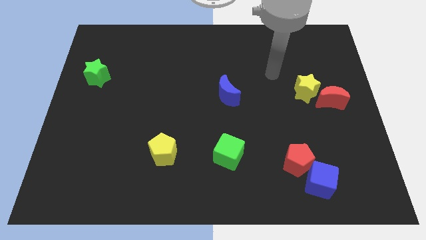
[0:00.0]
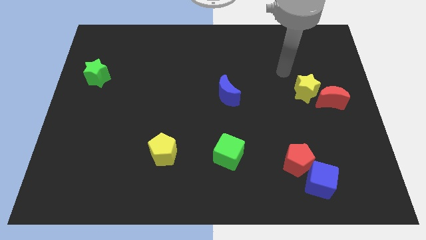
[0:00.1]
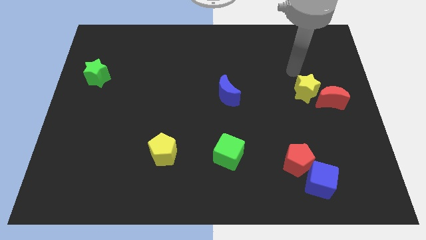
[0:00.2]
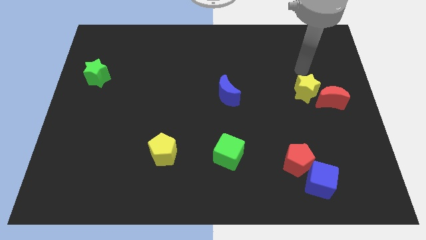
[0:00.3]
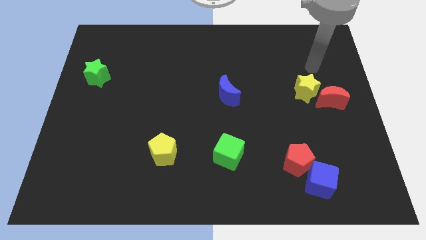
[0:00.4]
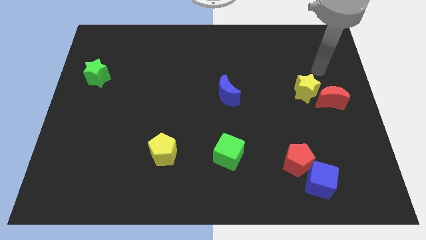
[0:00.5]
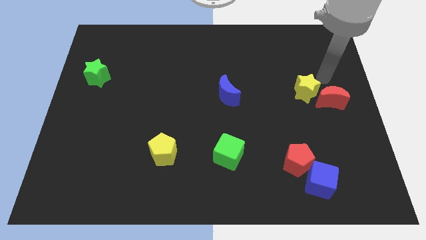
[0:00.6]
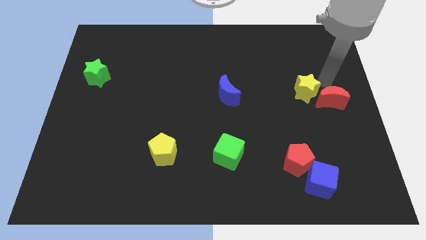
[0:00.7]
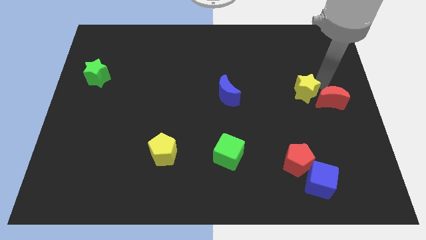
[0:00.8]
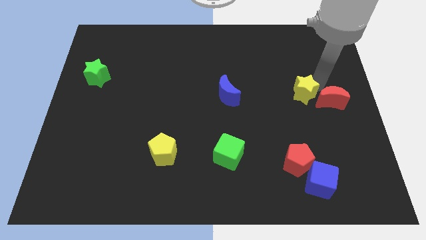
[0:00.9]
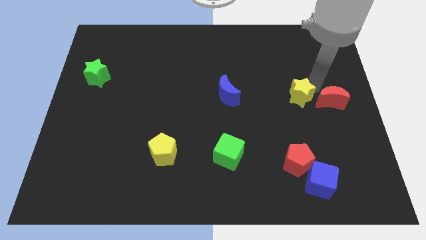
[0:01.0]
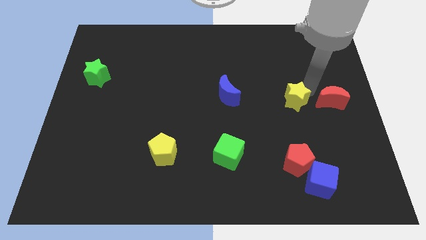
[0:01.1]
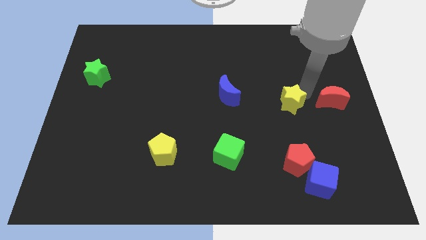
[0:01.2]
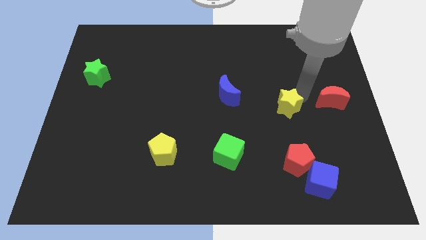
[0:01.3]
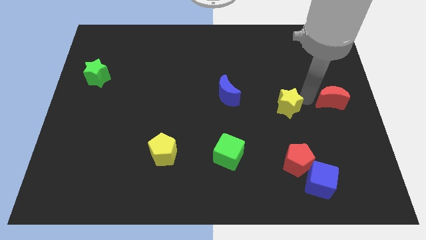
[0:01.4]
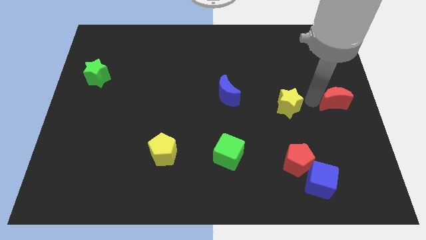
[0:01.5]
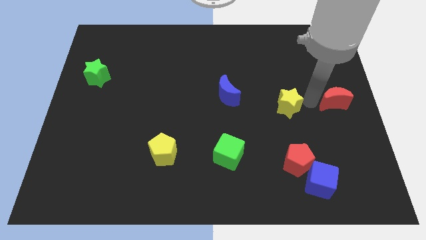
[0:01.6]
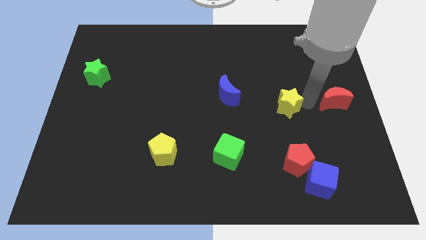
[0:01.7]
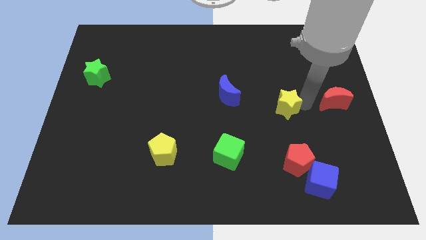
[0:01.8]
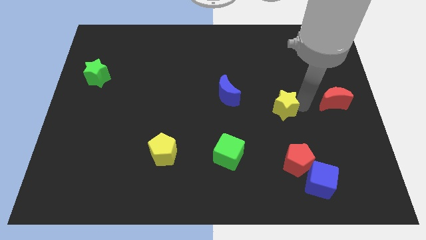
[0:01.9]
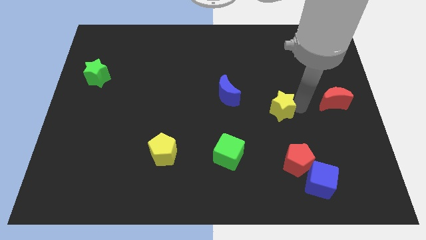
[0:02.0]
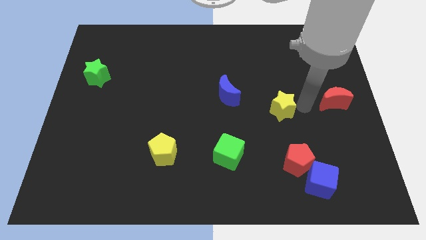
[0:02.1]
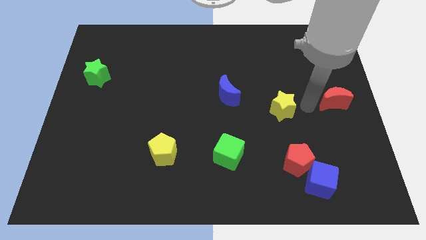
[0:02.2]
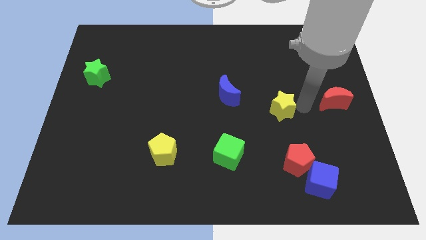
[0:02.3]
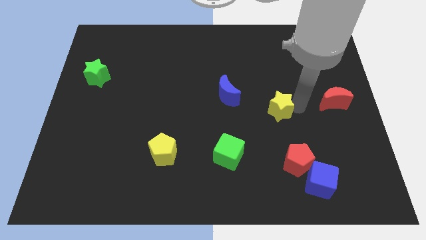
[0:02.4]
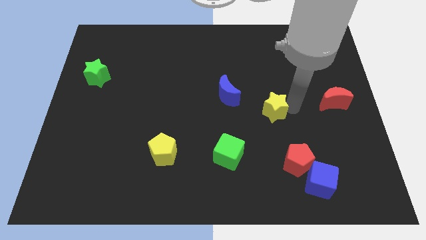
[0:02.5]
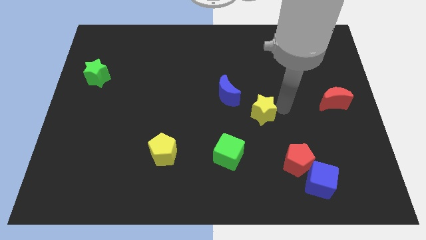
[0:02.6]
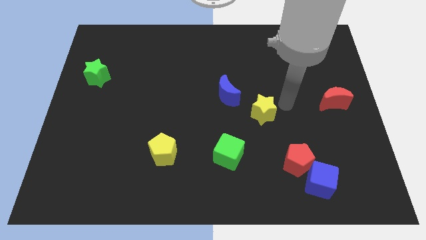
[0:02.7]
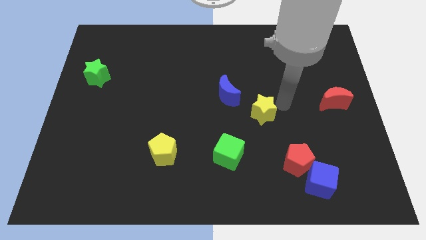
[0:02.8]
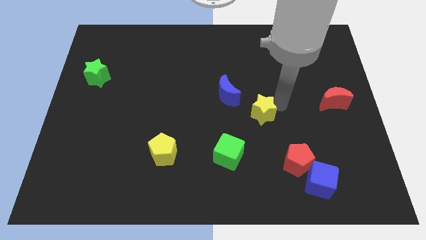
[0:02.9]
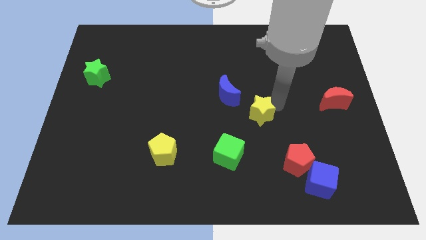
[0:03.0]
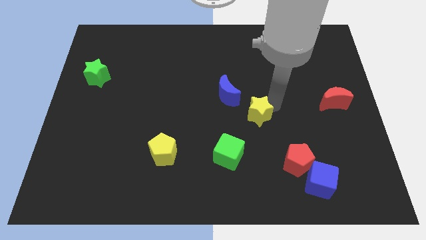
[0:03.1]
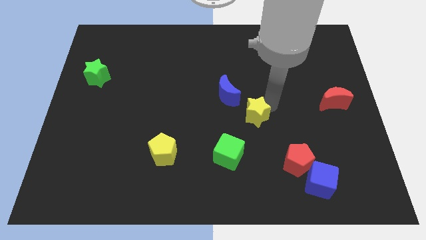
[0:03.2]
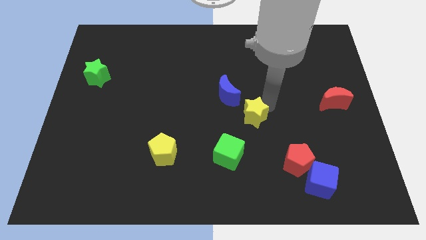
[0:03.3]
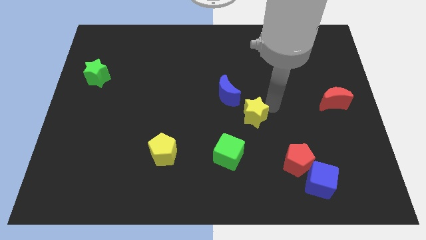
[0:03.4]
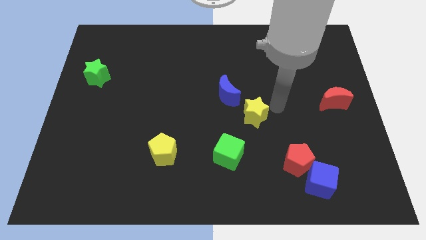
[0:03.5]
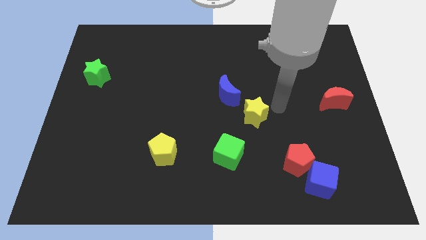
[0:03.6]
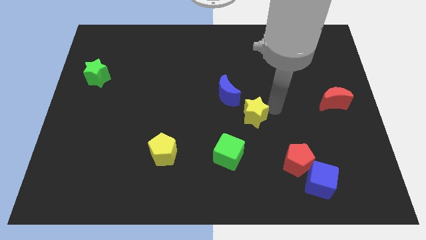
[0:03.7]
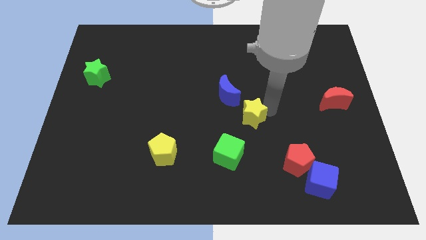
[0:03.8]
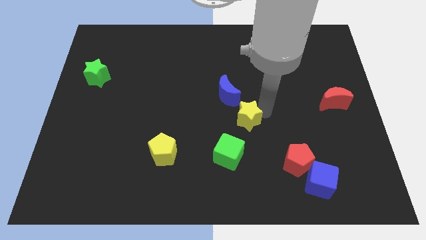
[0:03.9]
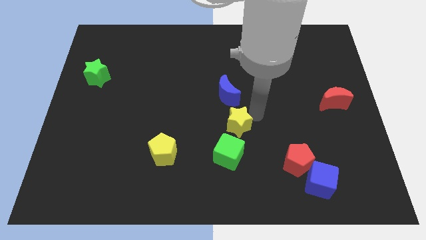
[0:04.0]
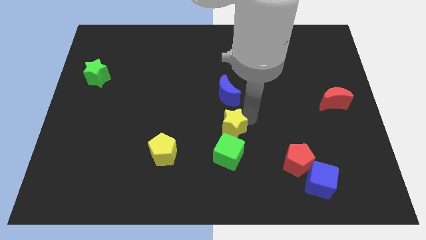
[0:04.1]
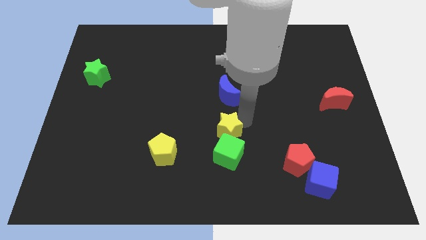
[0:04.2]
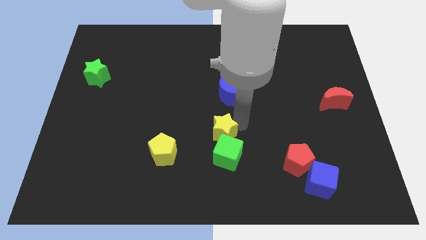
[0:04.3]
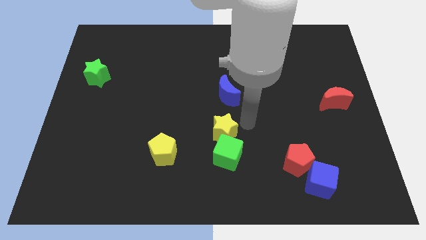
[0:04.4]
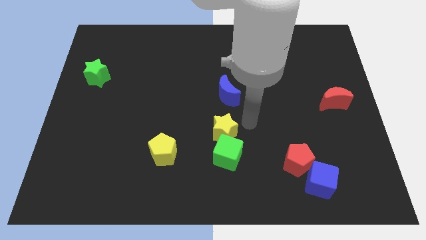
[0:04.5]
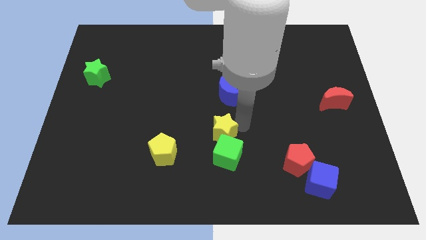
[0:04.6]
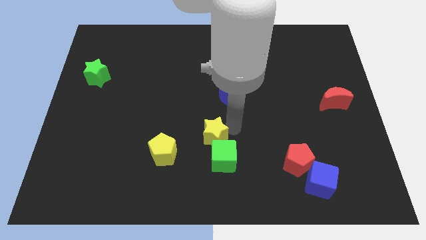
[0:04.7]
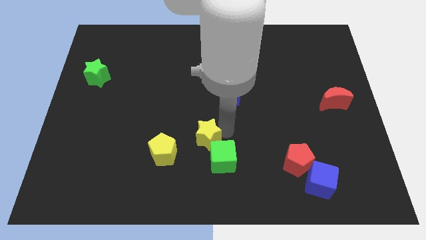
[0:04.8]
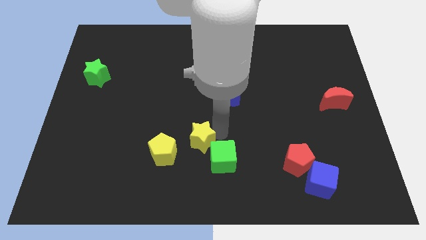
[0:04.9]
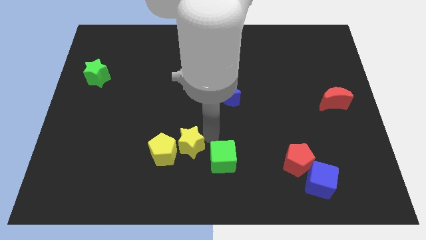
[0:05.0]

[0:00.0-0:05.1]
put the yellow star next to the yellow pentagon

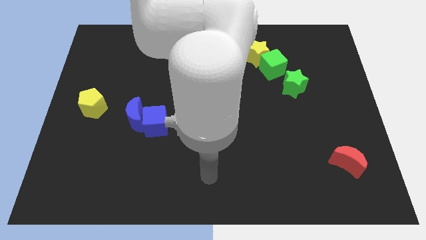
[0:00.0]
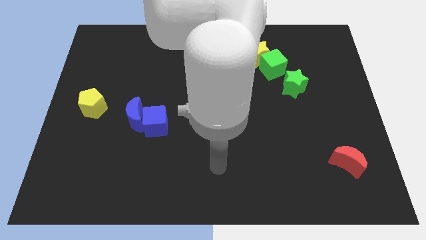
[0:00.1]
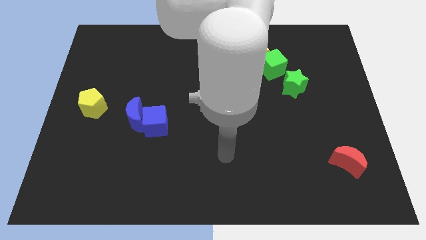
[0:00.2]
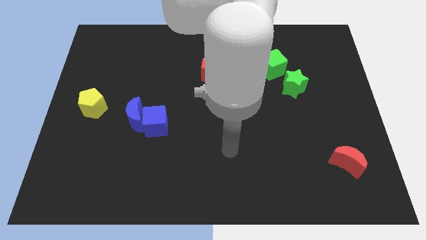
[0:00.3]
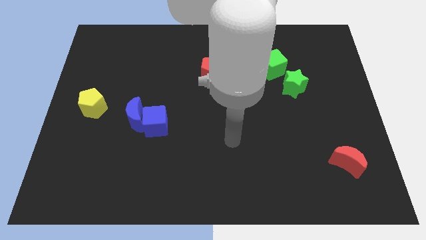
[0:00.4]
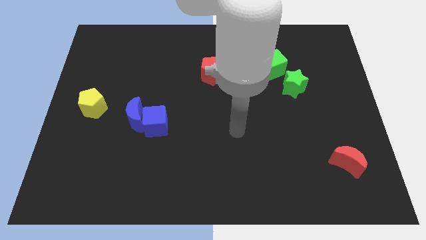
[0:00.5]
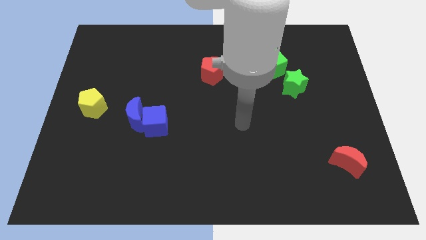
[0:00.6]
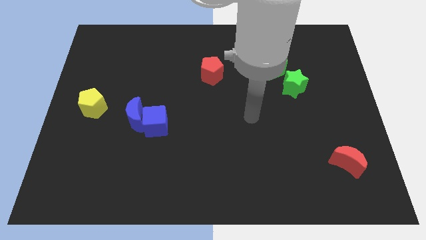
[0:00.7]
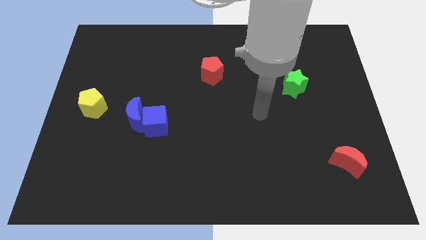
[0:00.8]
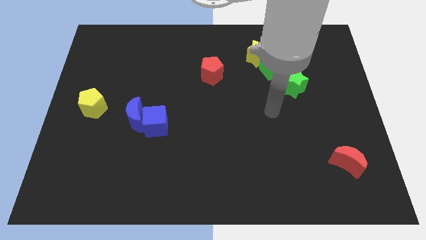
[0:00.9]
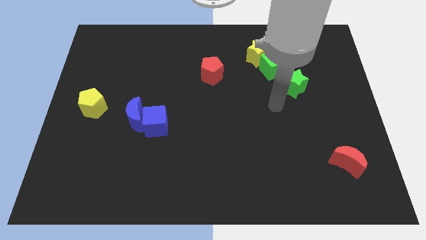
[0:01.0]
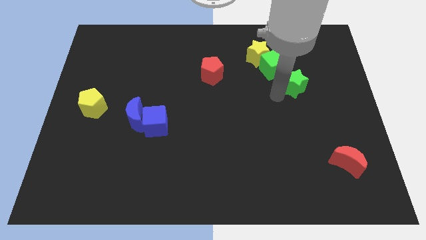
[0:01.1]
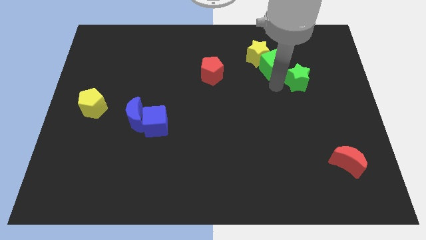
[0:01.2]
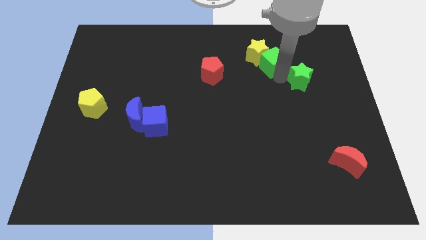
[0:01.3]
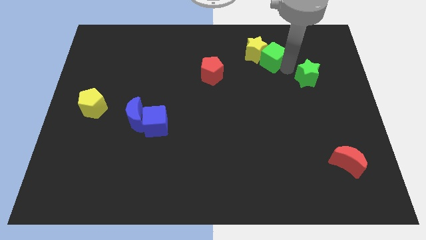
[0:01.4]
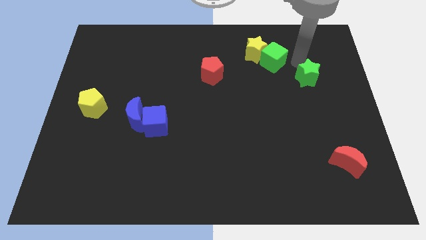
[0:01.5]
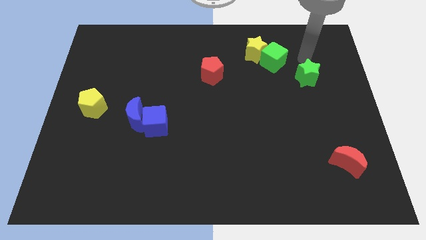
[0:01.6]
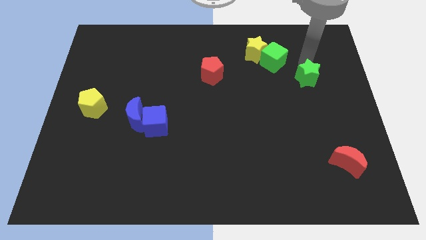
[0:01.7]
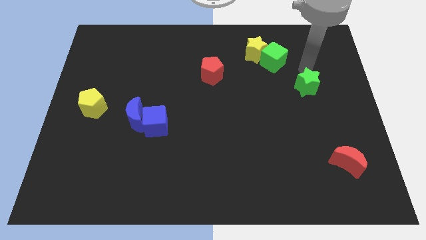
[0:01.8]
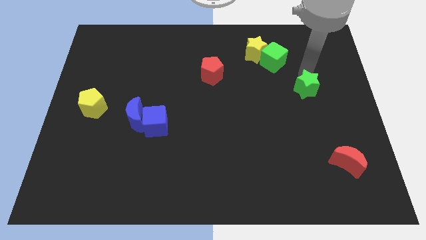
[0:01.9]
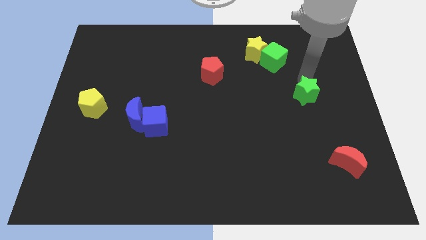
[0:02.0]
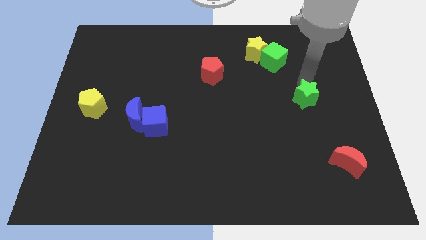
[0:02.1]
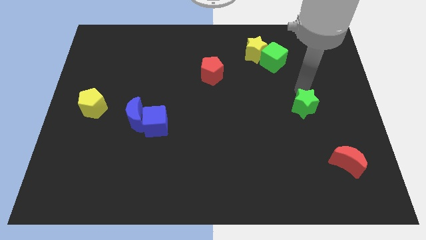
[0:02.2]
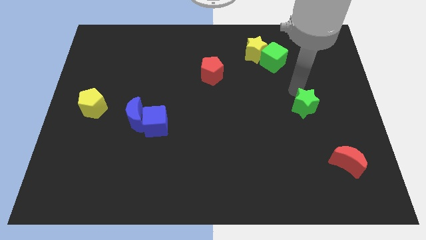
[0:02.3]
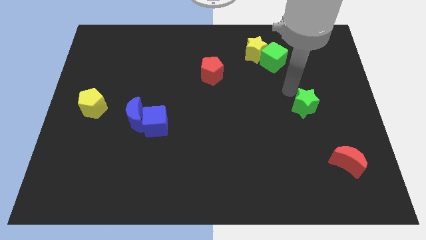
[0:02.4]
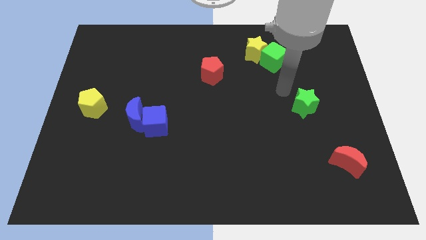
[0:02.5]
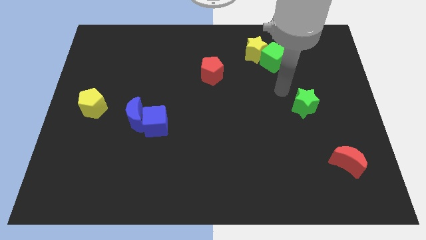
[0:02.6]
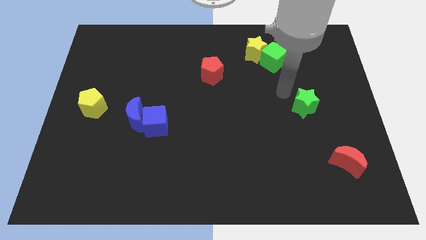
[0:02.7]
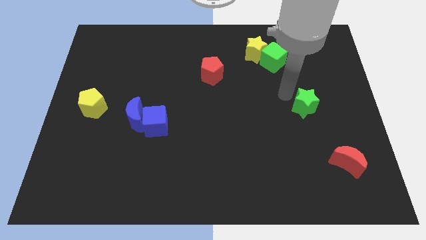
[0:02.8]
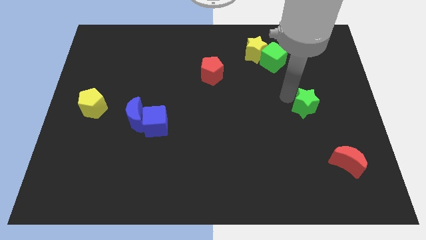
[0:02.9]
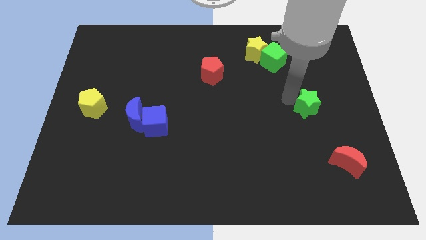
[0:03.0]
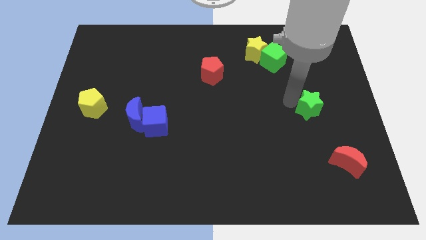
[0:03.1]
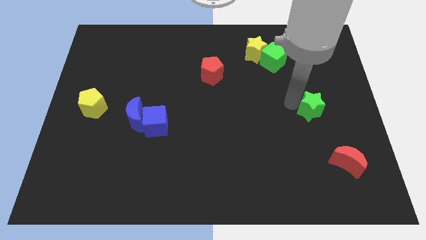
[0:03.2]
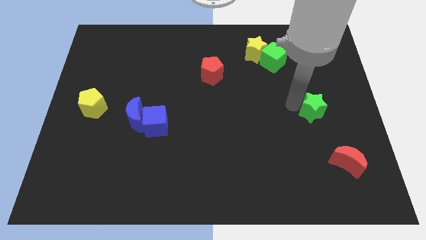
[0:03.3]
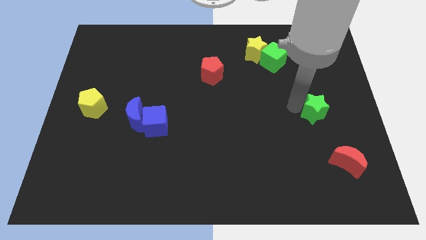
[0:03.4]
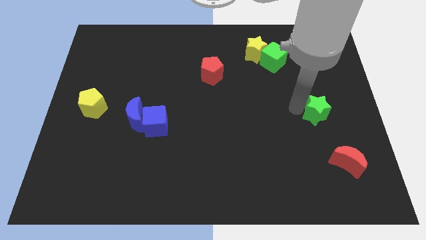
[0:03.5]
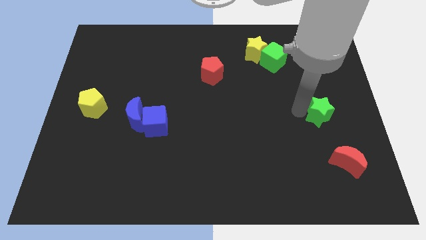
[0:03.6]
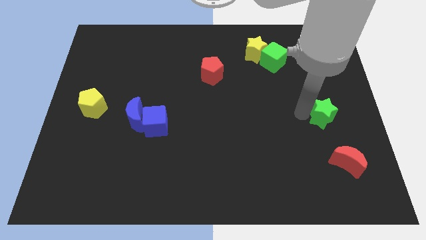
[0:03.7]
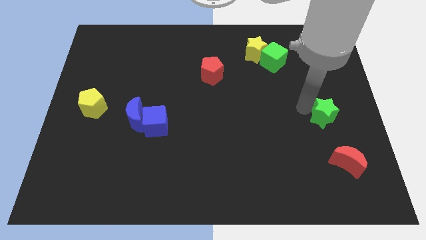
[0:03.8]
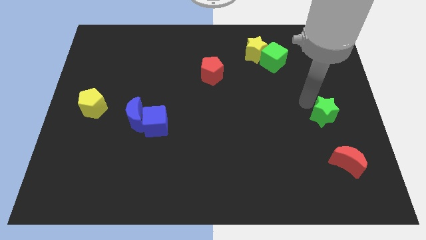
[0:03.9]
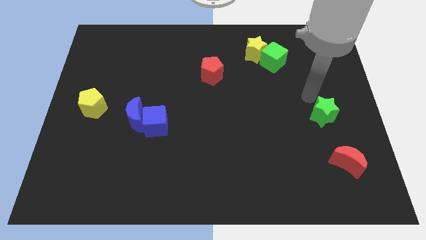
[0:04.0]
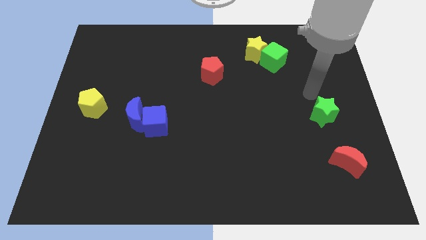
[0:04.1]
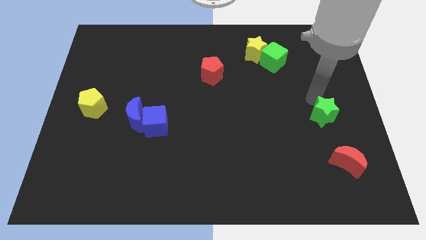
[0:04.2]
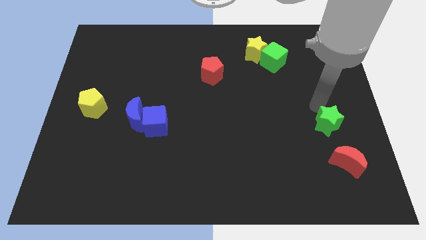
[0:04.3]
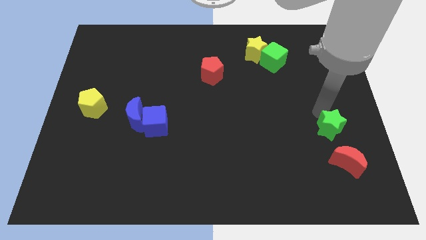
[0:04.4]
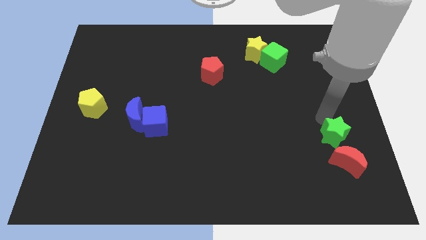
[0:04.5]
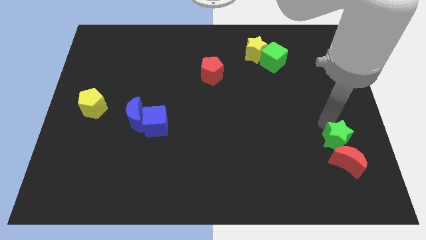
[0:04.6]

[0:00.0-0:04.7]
put the green star next to the red moon
